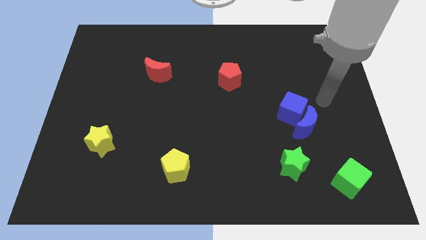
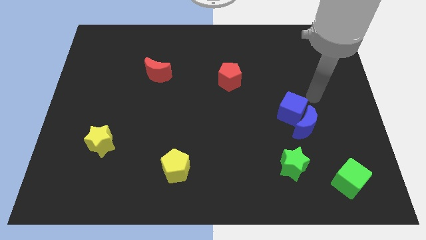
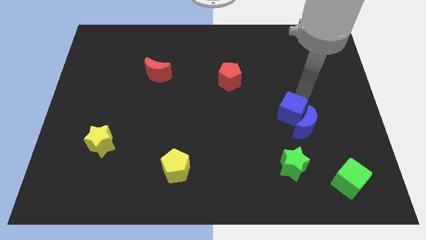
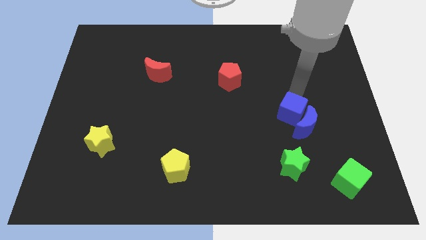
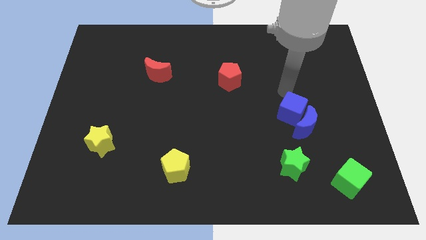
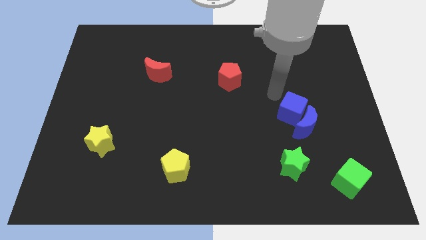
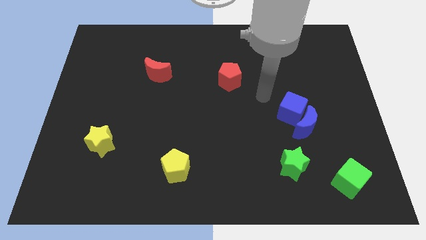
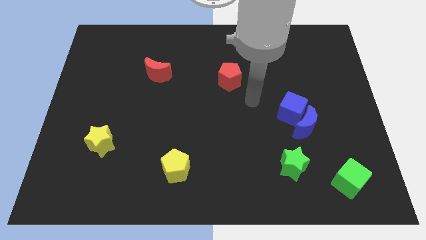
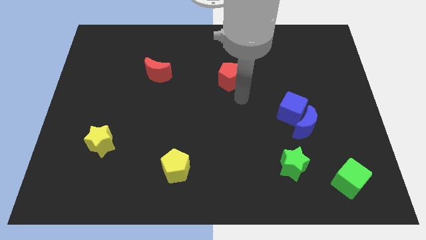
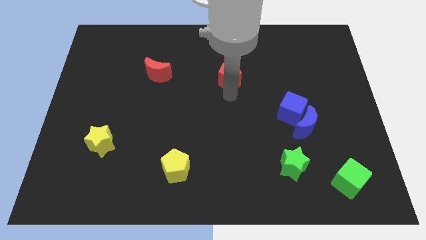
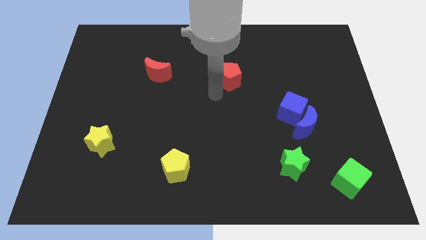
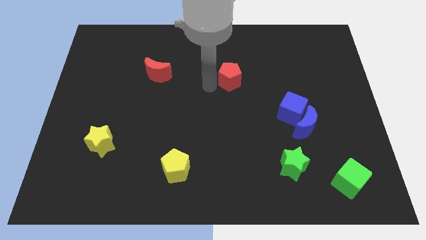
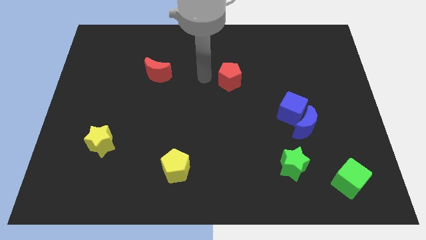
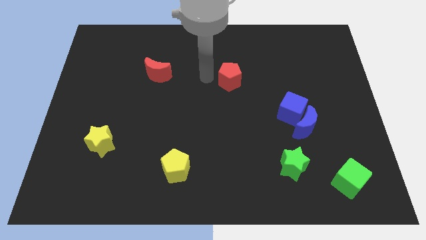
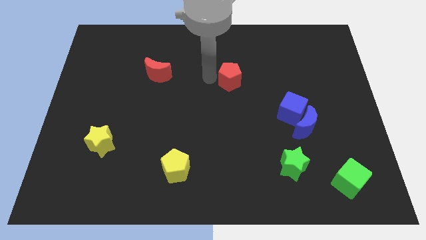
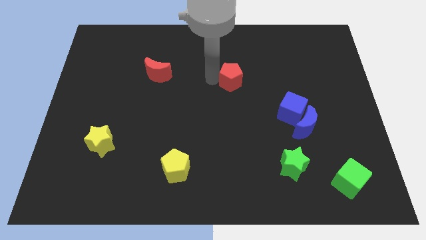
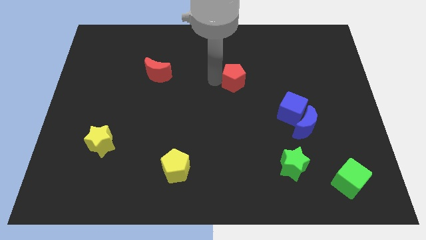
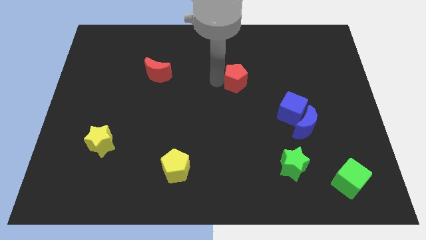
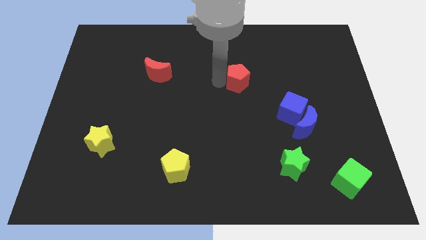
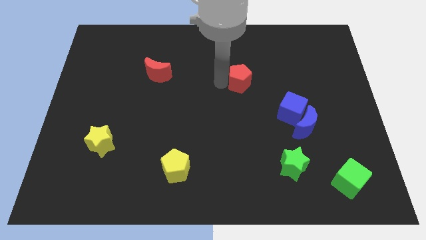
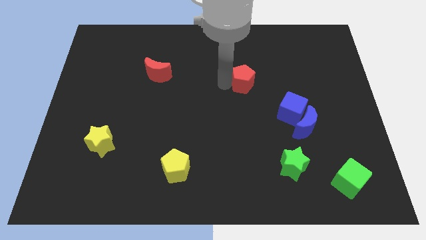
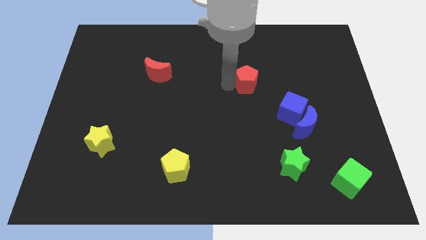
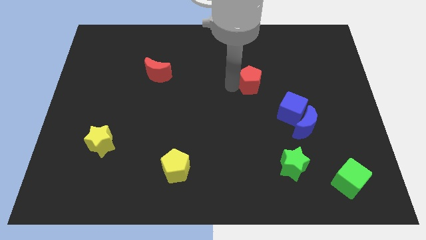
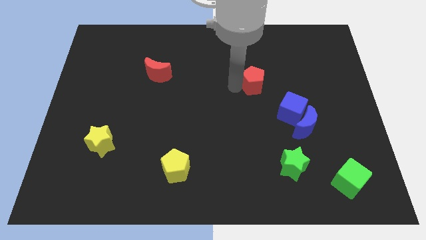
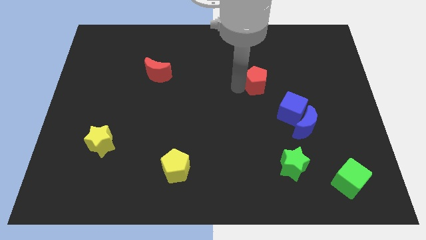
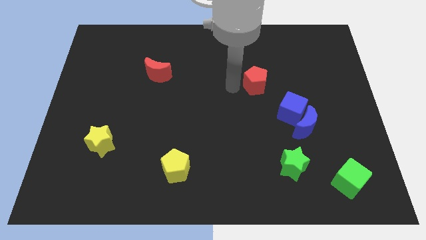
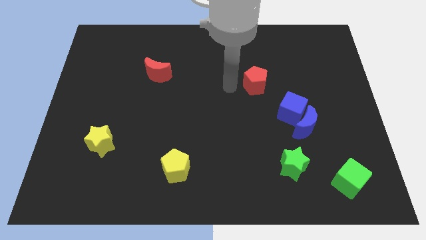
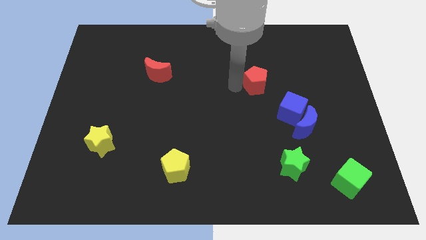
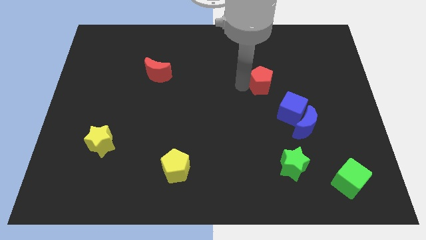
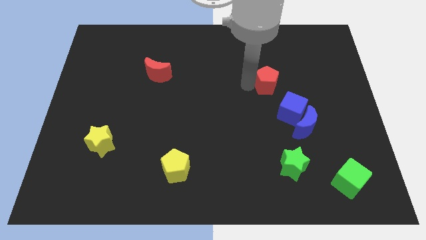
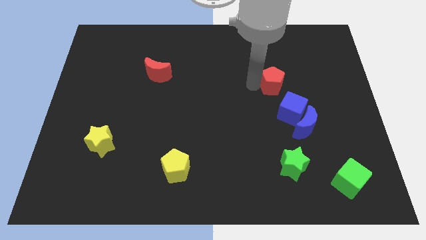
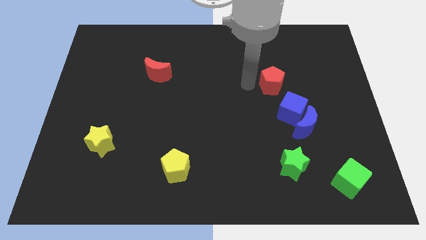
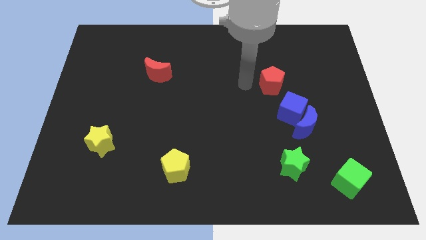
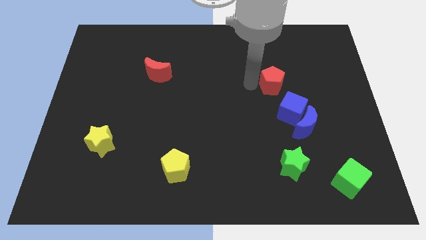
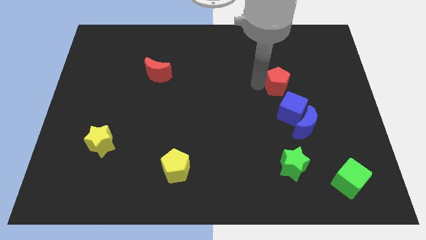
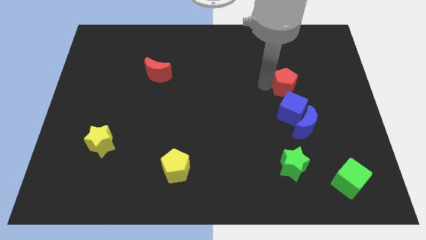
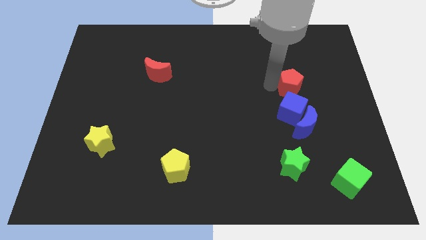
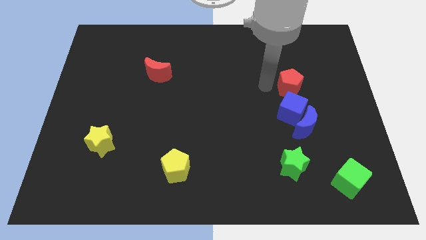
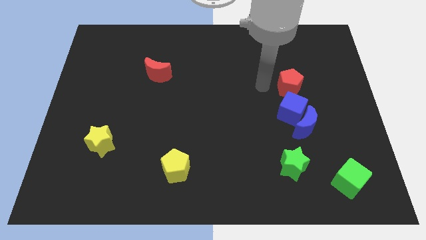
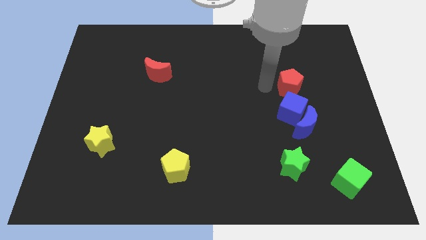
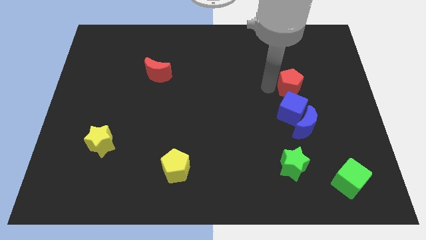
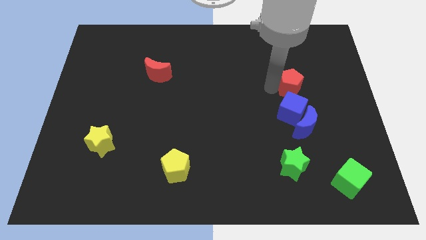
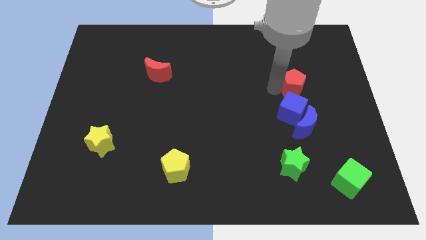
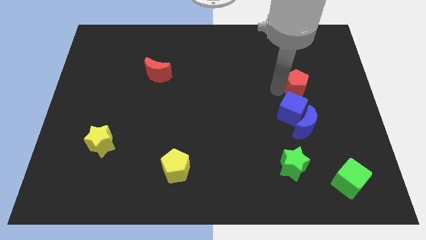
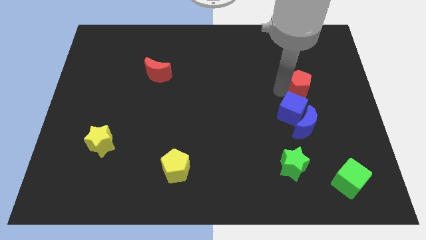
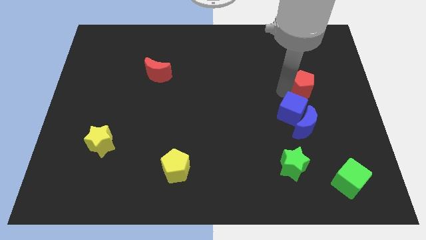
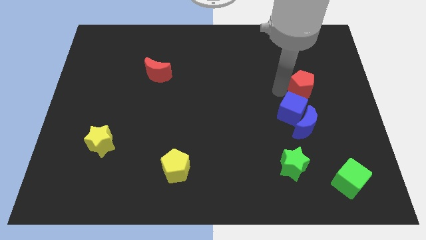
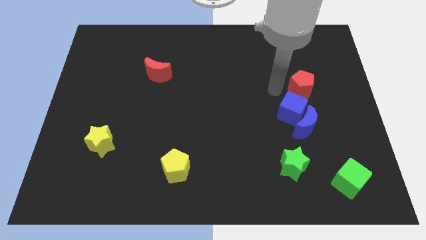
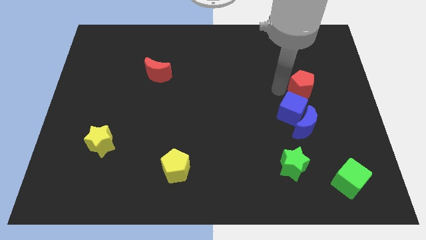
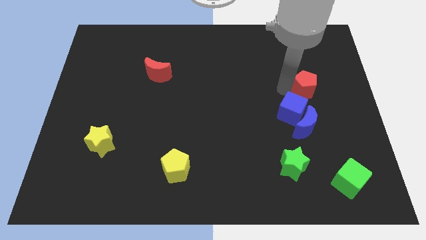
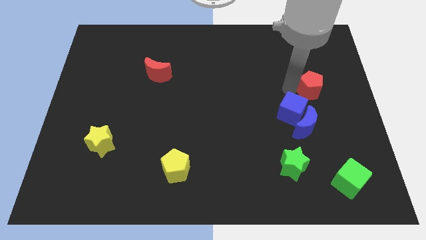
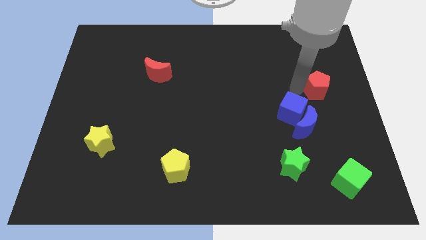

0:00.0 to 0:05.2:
push the red pentagon to the right side

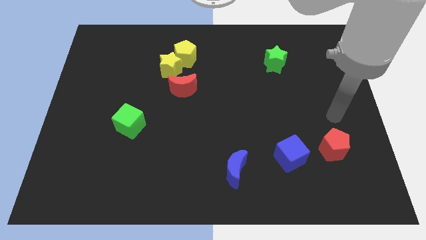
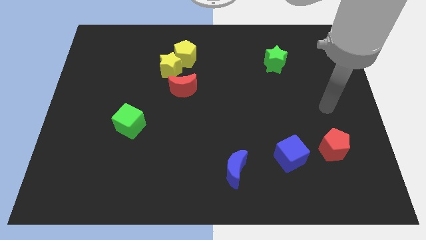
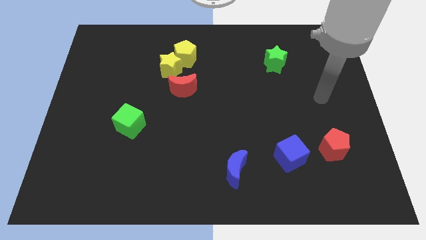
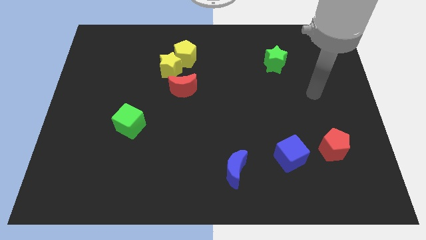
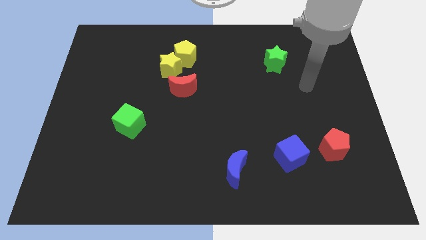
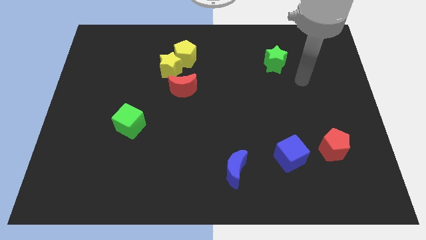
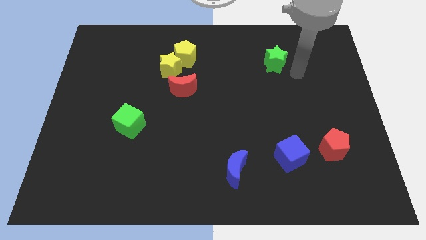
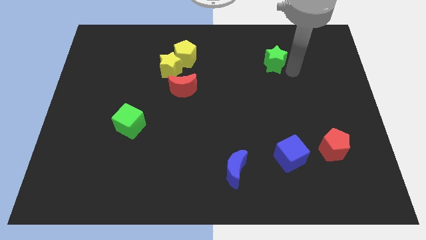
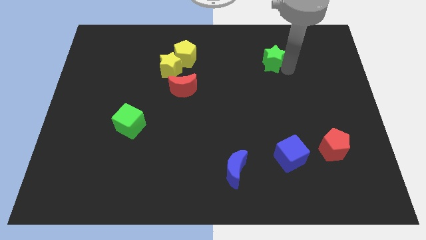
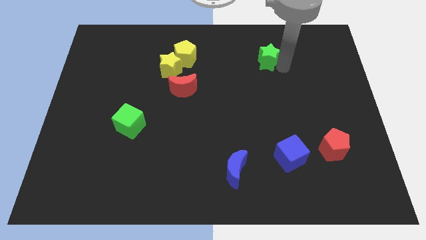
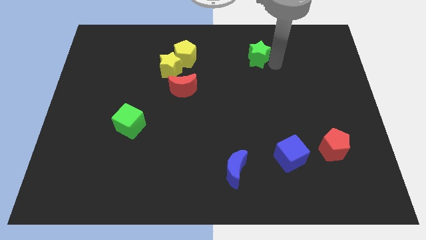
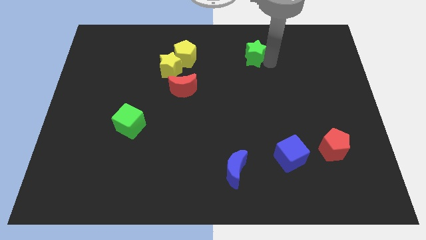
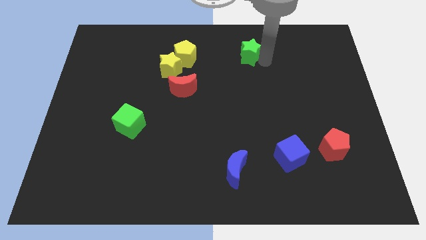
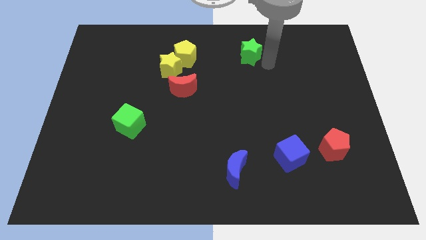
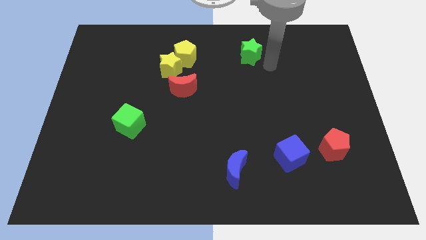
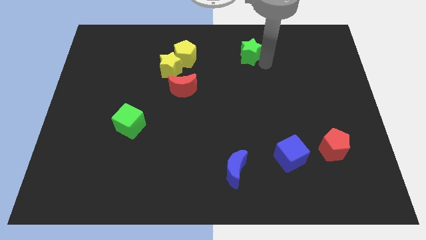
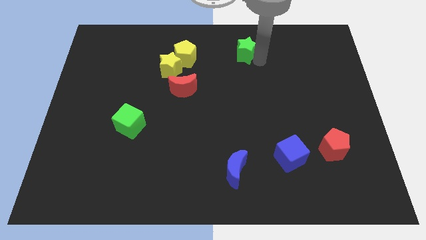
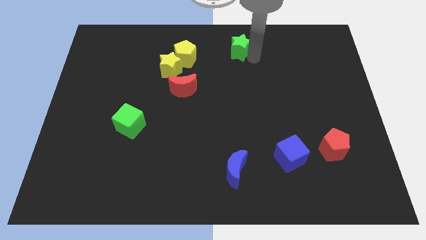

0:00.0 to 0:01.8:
slide the green star to the towards your base
